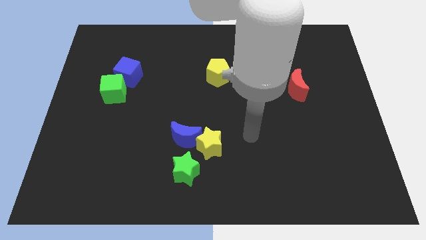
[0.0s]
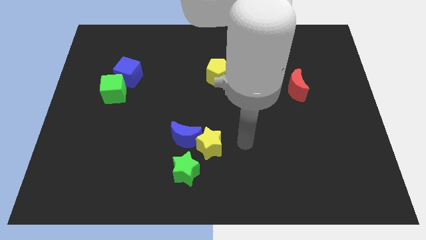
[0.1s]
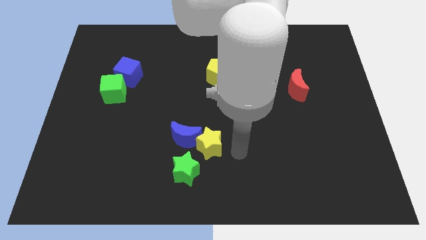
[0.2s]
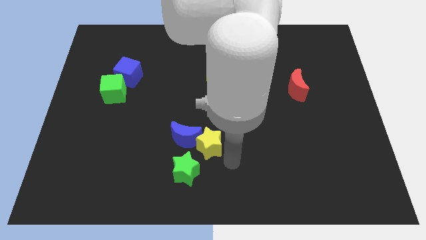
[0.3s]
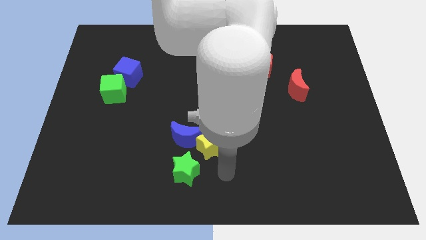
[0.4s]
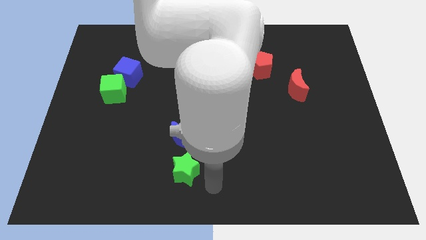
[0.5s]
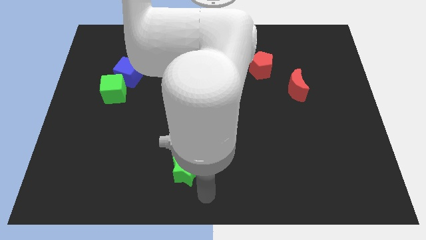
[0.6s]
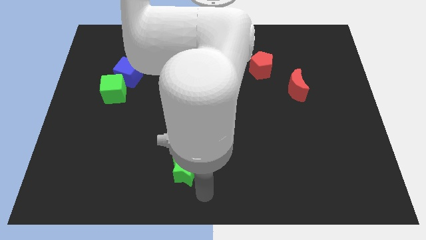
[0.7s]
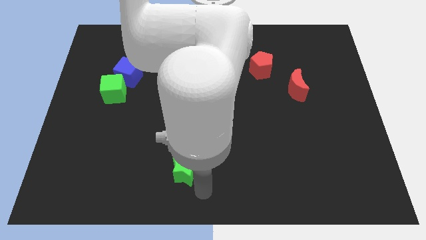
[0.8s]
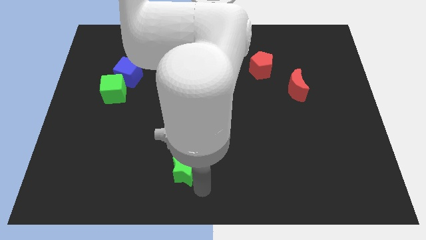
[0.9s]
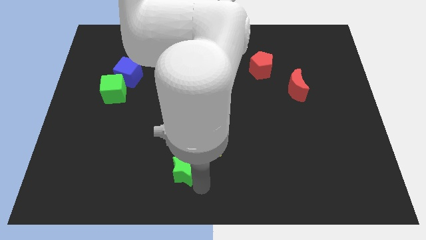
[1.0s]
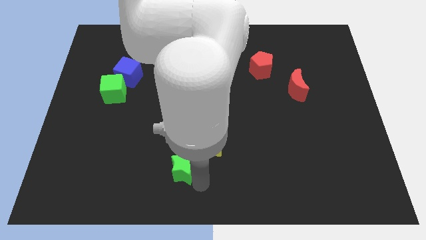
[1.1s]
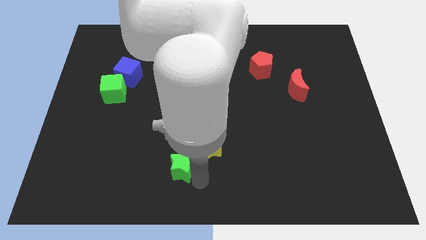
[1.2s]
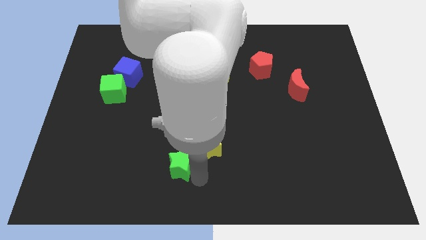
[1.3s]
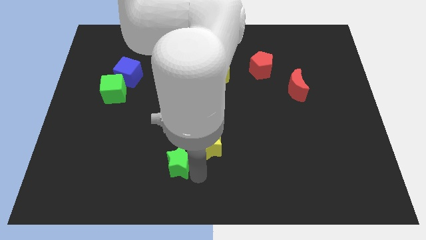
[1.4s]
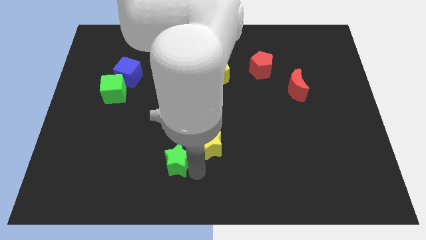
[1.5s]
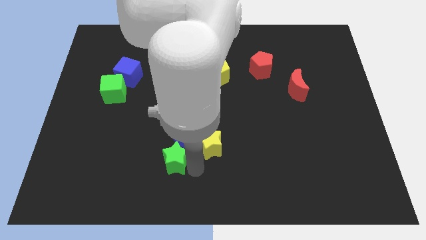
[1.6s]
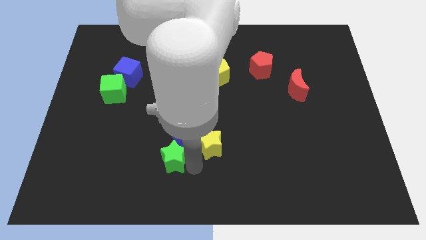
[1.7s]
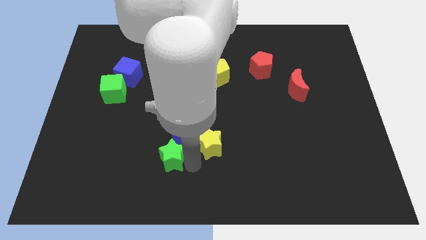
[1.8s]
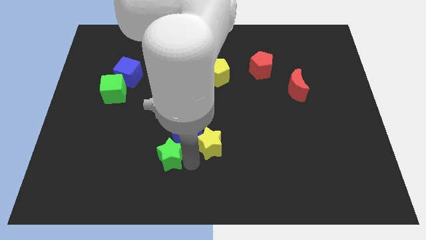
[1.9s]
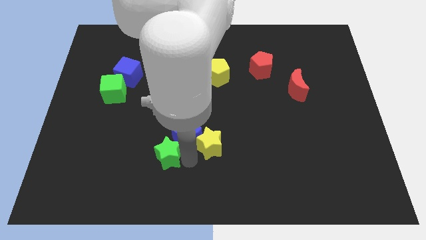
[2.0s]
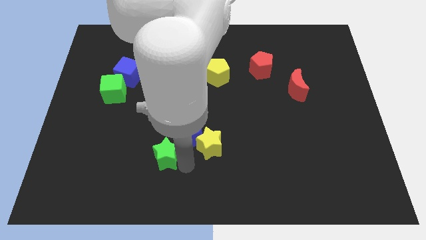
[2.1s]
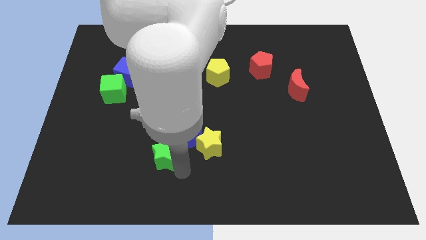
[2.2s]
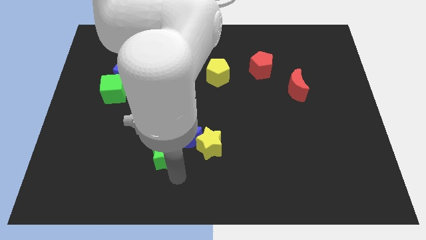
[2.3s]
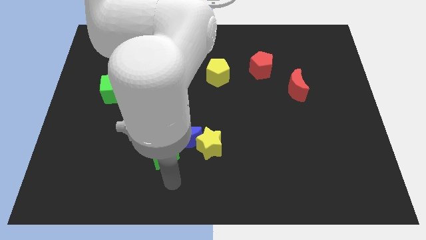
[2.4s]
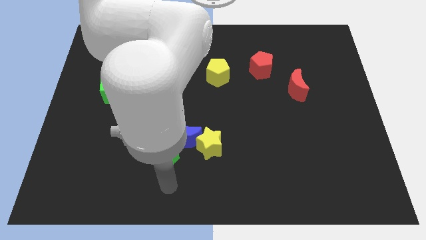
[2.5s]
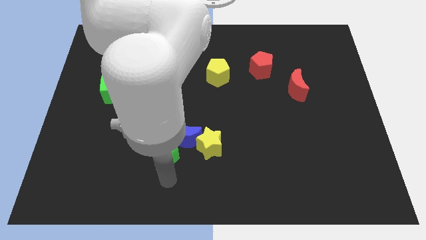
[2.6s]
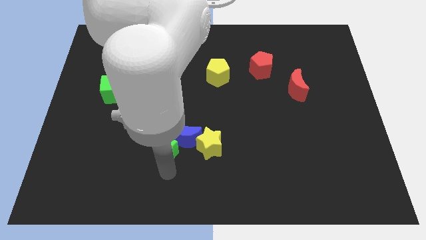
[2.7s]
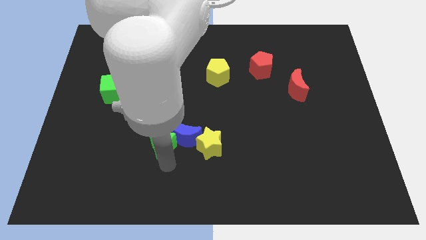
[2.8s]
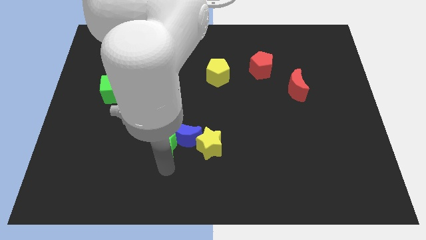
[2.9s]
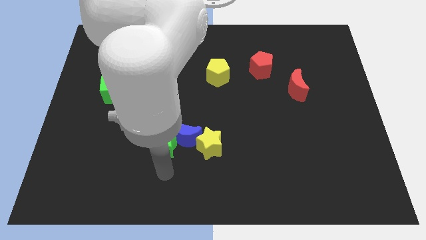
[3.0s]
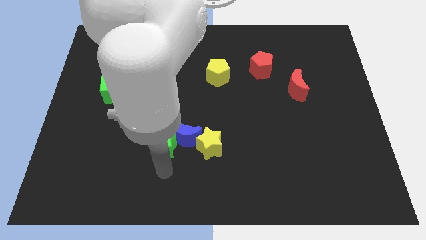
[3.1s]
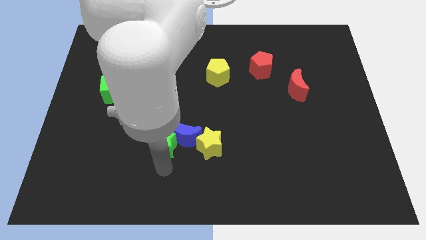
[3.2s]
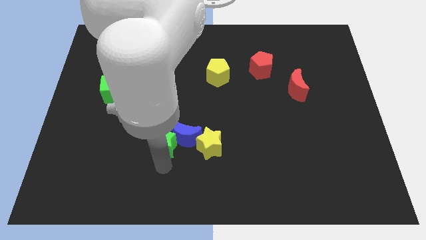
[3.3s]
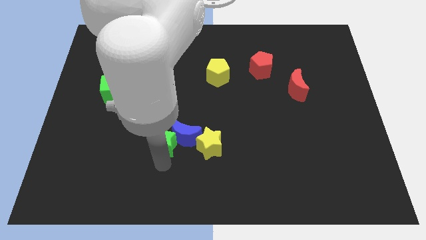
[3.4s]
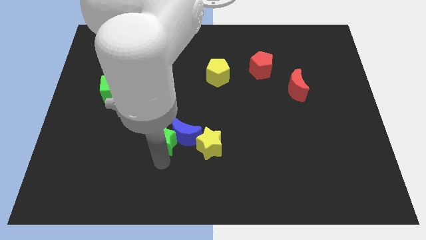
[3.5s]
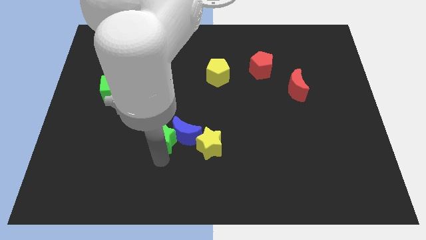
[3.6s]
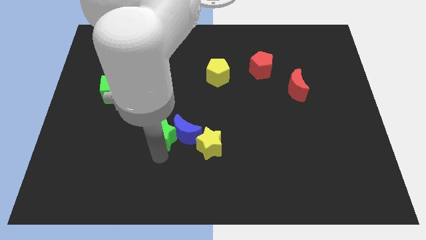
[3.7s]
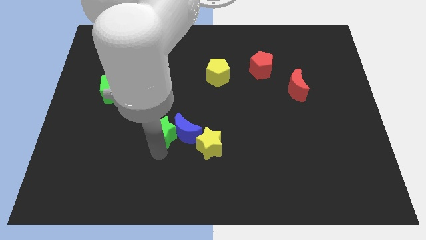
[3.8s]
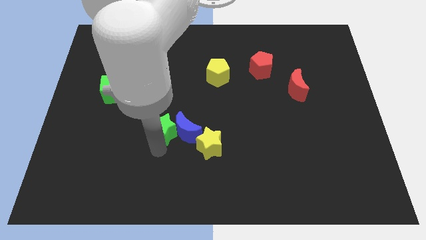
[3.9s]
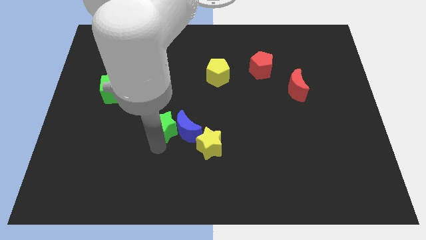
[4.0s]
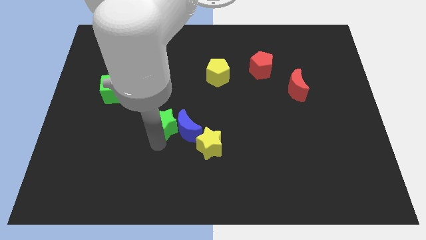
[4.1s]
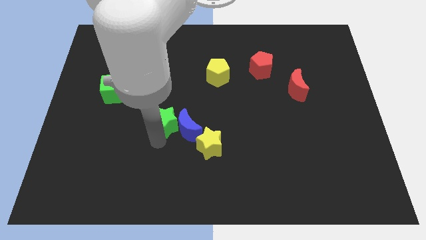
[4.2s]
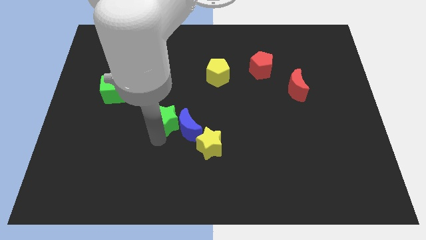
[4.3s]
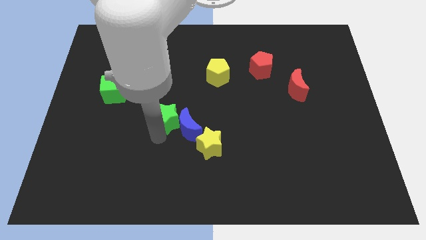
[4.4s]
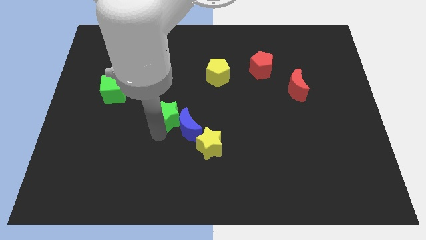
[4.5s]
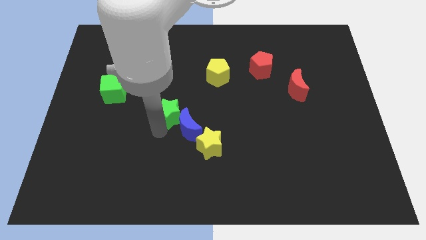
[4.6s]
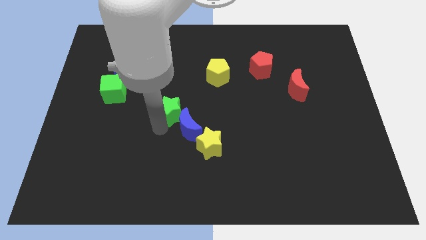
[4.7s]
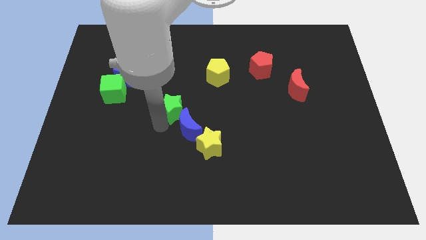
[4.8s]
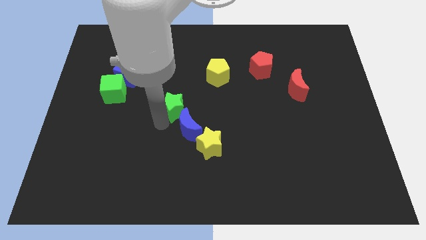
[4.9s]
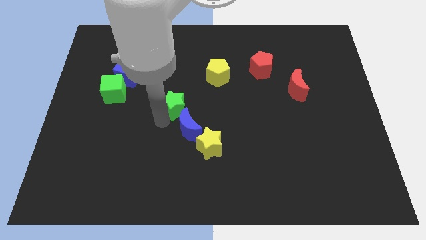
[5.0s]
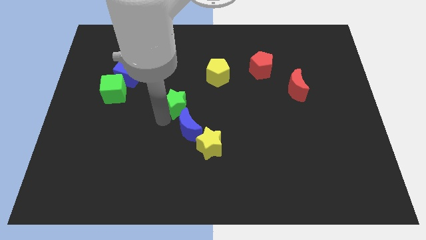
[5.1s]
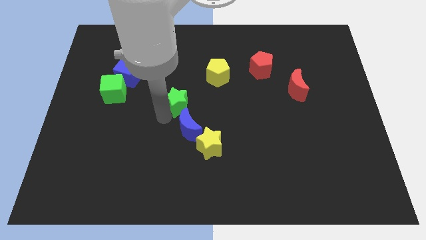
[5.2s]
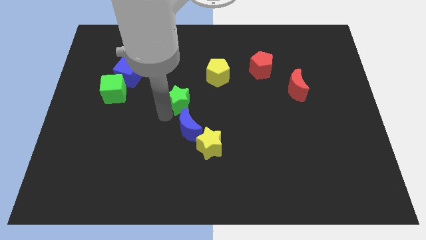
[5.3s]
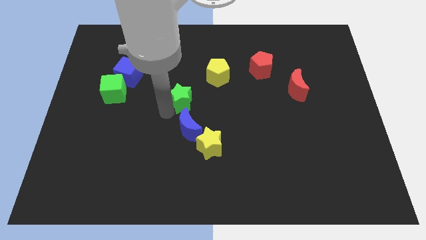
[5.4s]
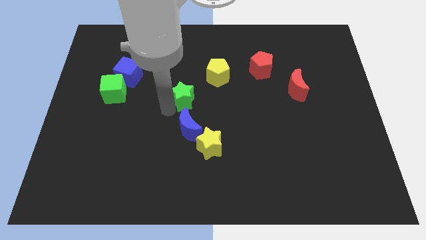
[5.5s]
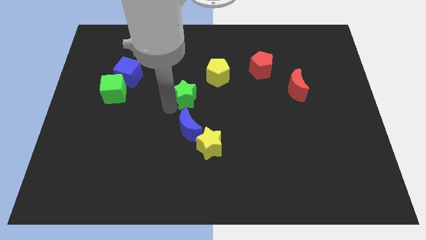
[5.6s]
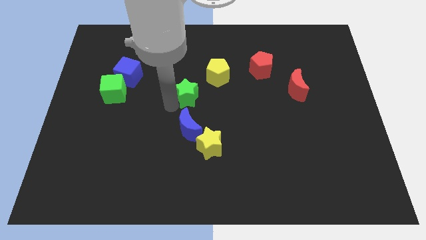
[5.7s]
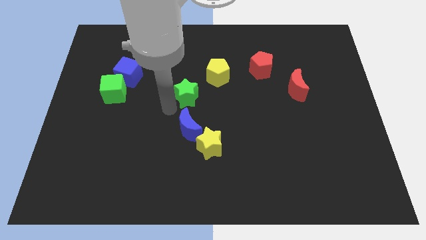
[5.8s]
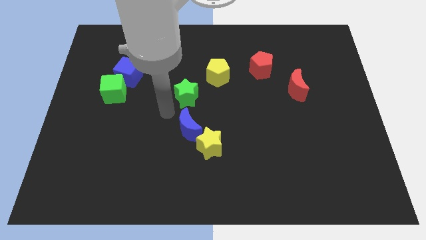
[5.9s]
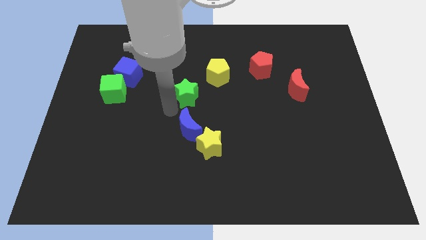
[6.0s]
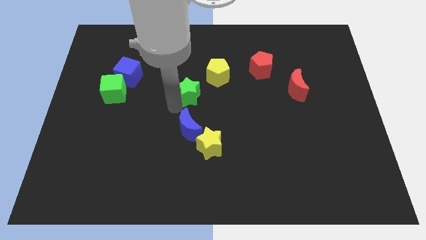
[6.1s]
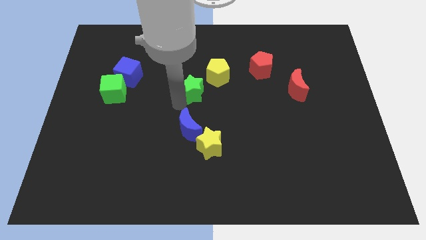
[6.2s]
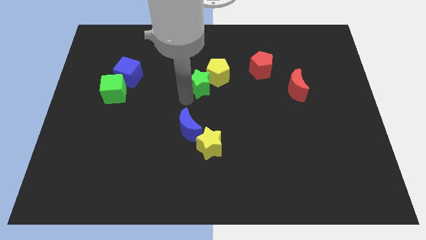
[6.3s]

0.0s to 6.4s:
put the green star next to the yellow pentagon

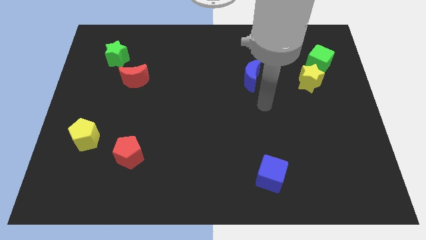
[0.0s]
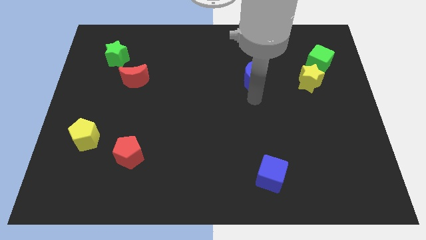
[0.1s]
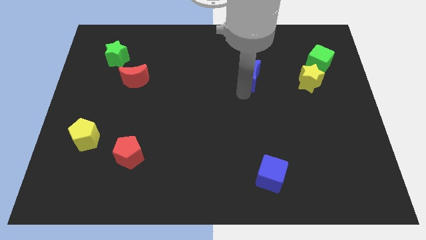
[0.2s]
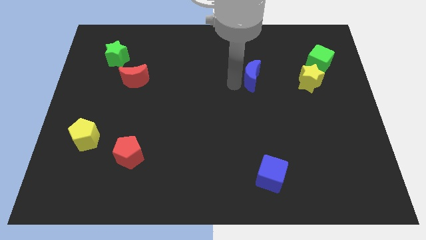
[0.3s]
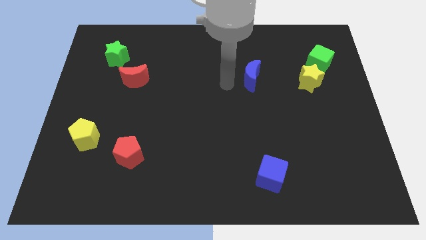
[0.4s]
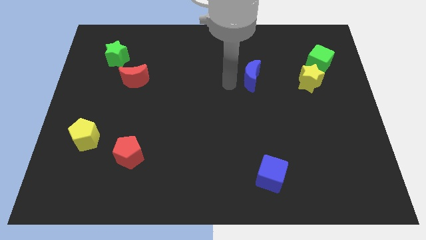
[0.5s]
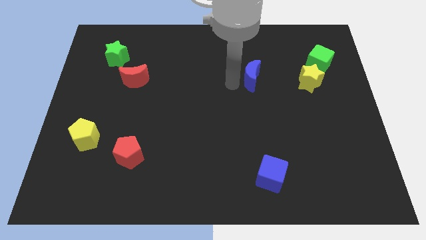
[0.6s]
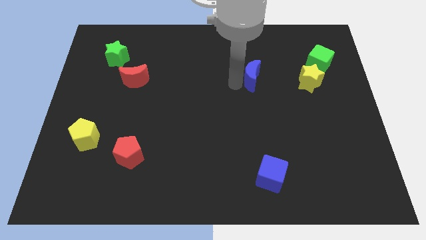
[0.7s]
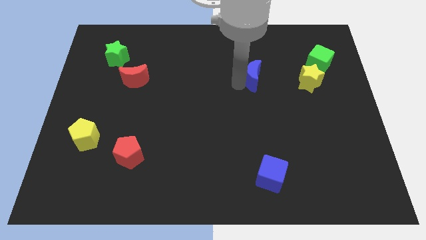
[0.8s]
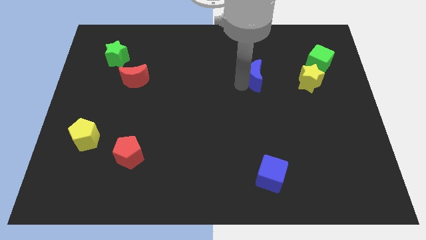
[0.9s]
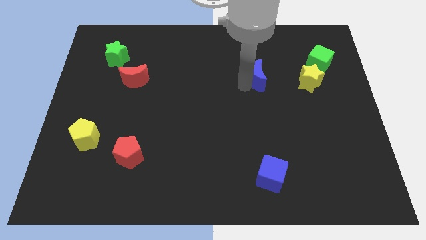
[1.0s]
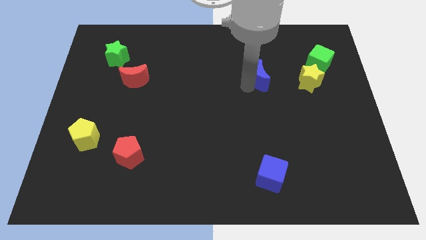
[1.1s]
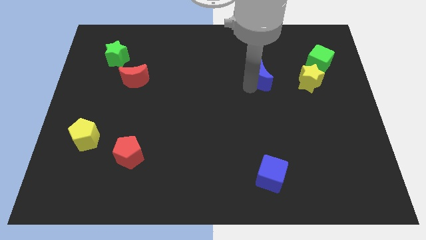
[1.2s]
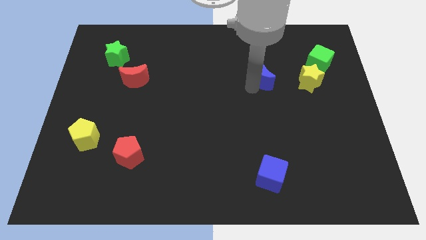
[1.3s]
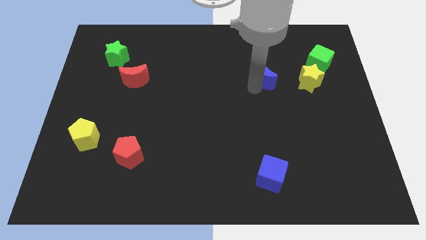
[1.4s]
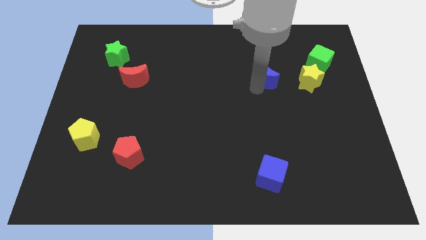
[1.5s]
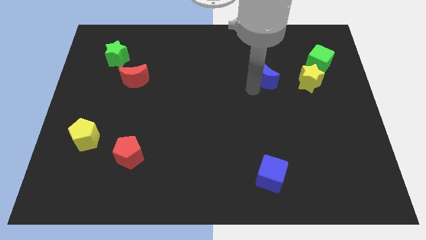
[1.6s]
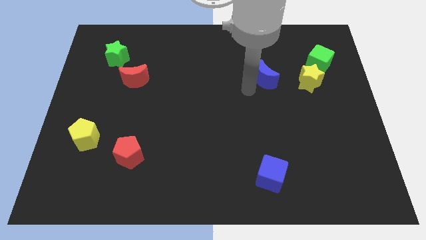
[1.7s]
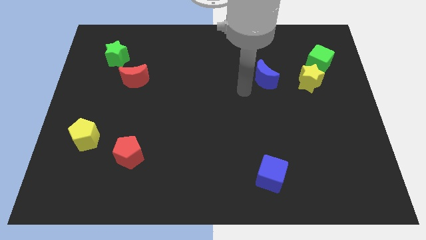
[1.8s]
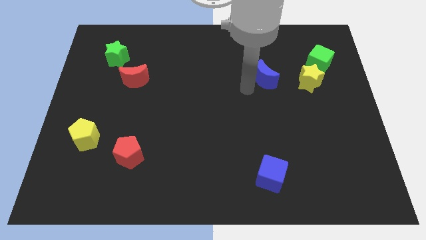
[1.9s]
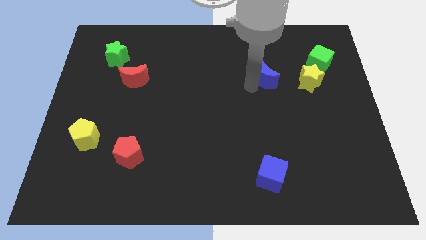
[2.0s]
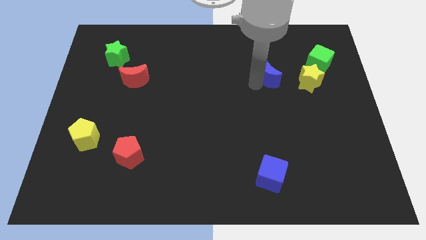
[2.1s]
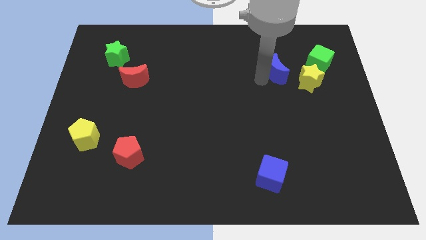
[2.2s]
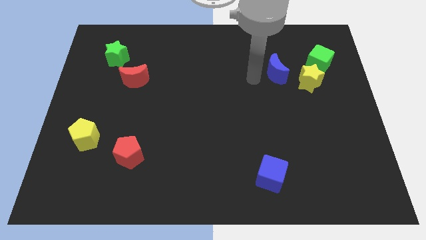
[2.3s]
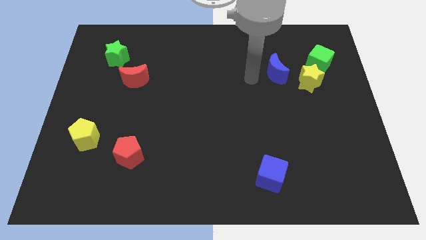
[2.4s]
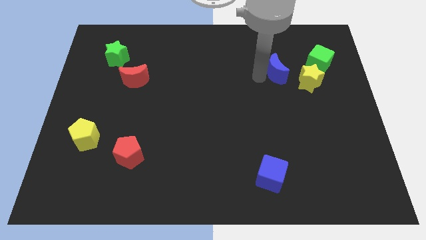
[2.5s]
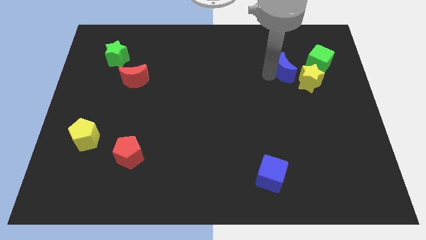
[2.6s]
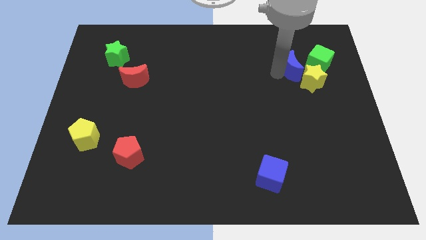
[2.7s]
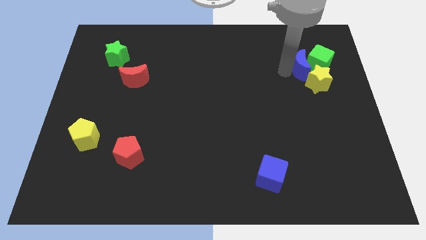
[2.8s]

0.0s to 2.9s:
slide the blue moon to the green cube
